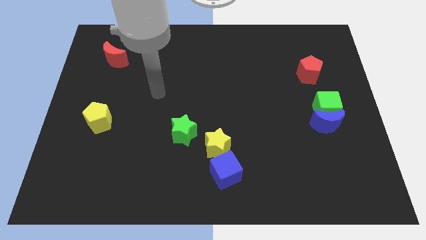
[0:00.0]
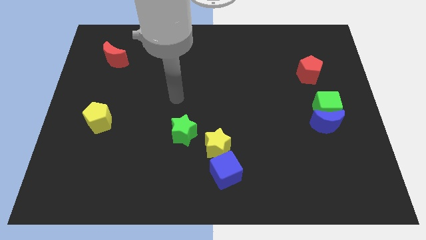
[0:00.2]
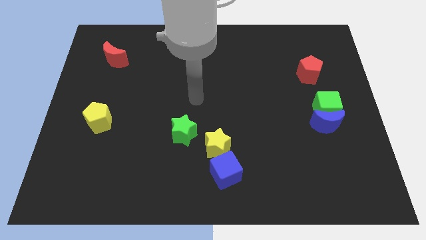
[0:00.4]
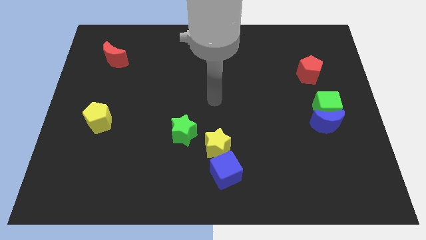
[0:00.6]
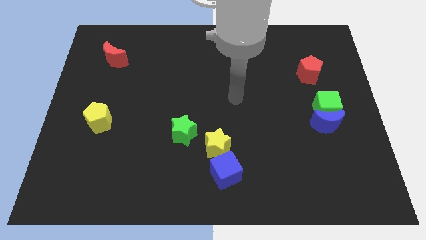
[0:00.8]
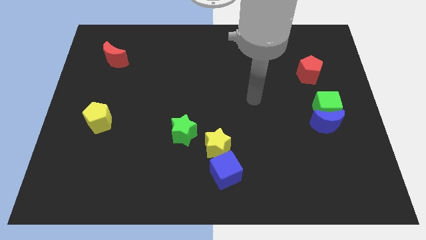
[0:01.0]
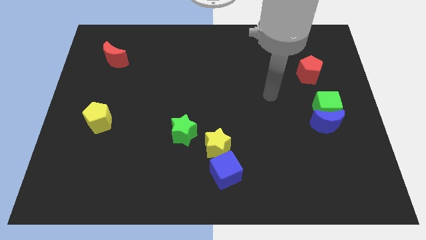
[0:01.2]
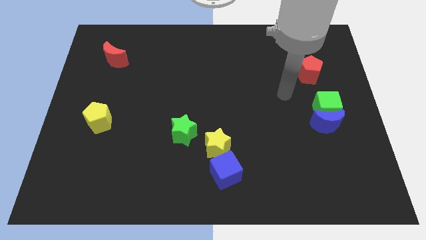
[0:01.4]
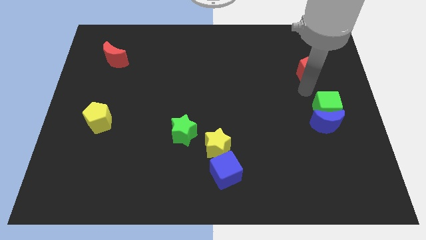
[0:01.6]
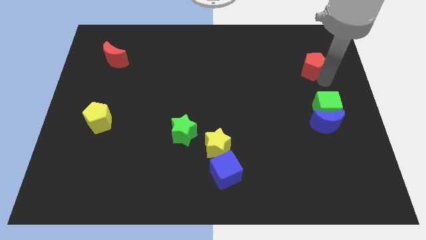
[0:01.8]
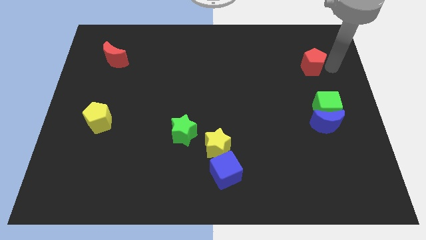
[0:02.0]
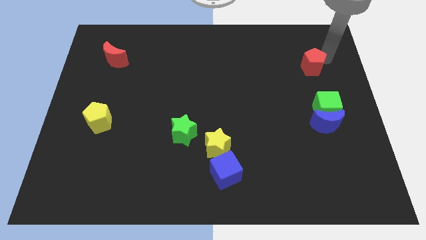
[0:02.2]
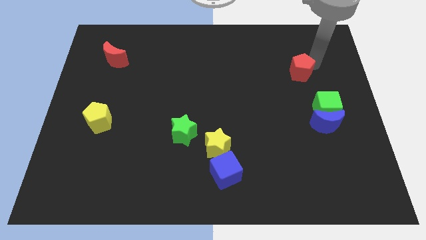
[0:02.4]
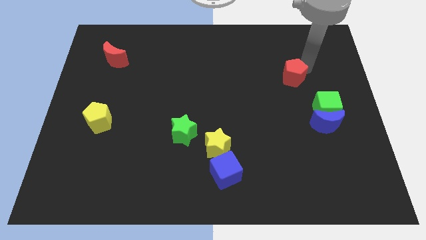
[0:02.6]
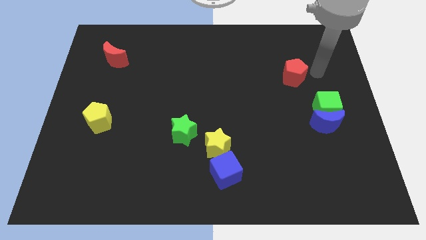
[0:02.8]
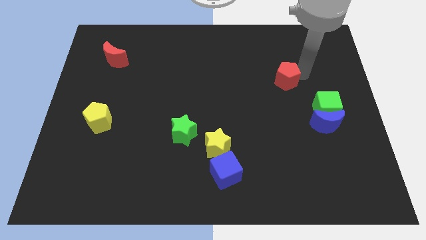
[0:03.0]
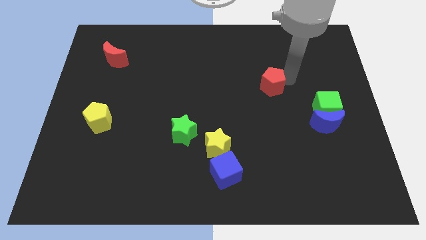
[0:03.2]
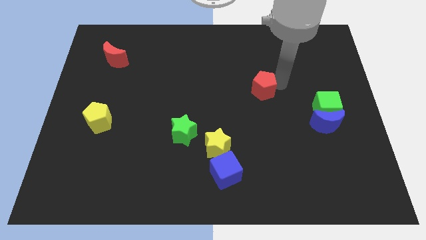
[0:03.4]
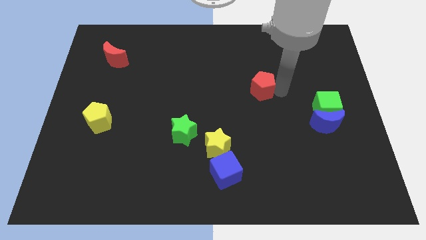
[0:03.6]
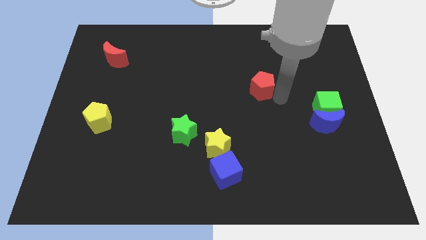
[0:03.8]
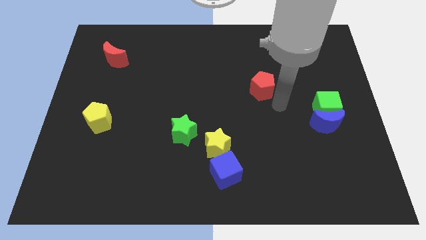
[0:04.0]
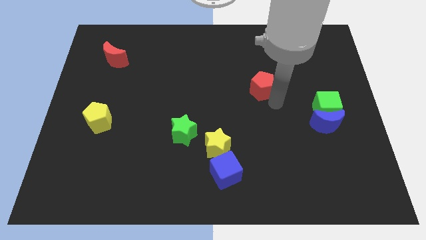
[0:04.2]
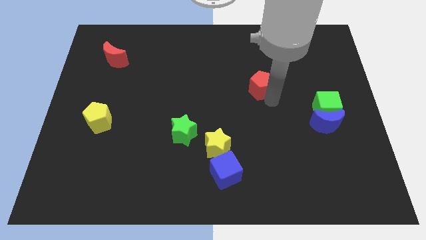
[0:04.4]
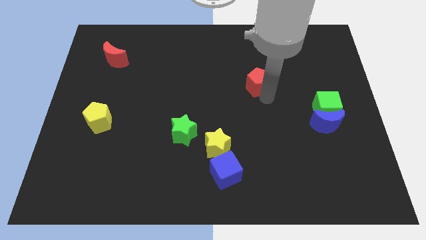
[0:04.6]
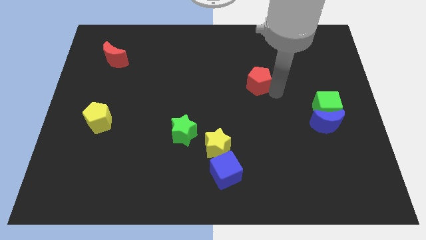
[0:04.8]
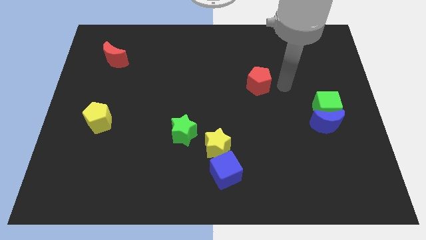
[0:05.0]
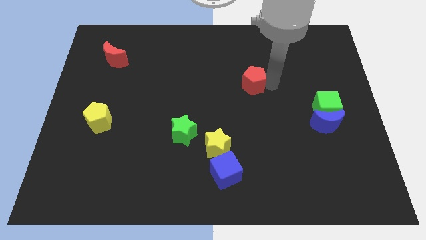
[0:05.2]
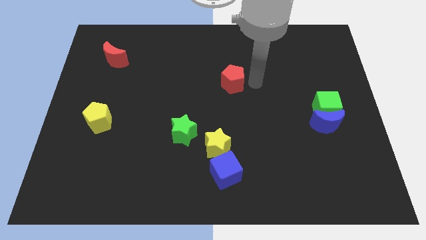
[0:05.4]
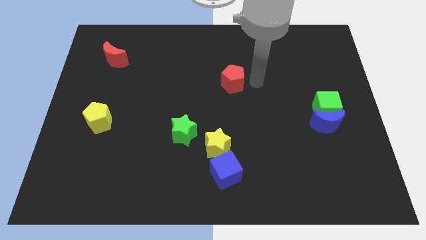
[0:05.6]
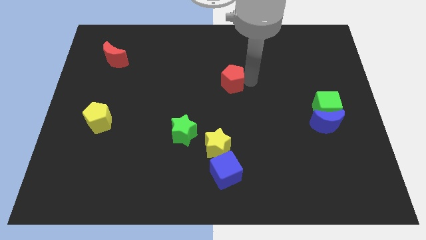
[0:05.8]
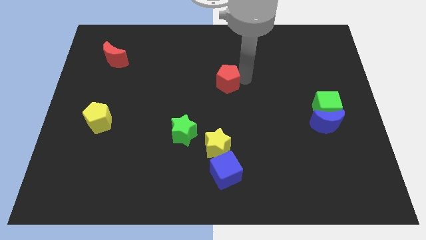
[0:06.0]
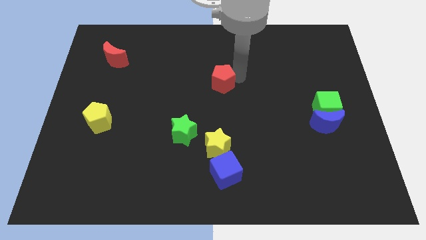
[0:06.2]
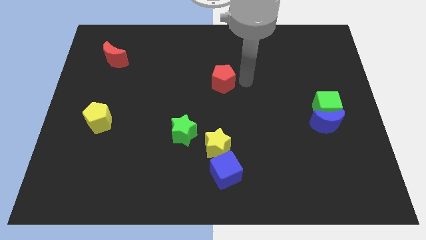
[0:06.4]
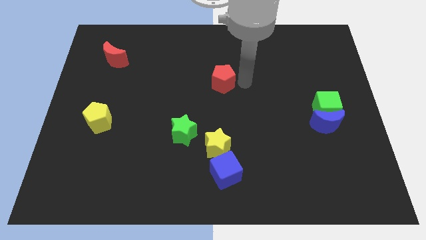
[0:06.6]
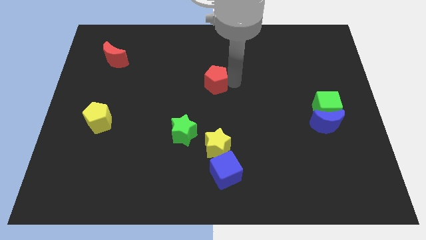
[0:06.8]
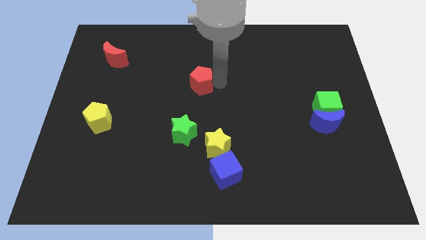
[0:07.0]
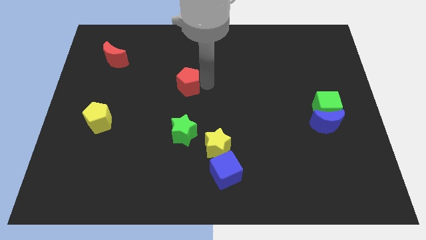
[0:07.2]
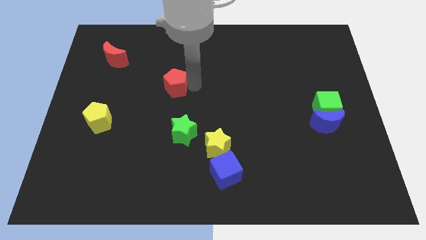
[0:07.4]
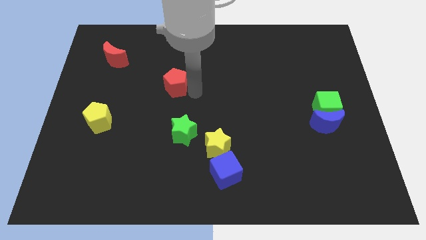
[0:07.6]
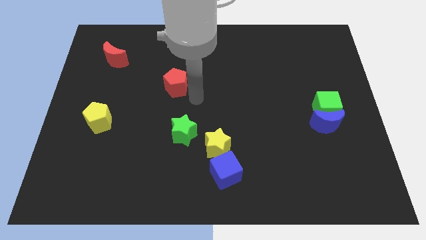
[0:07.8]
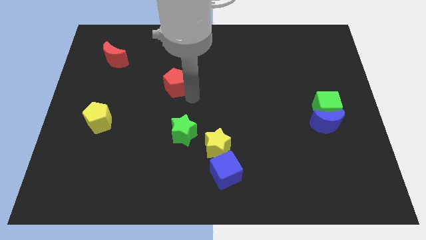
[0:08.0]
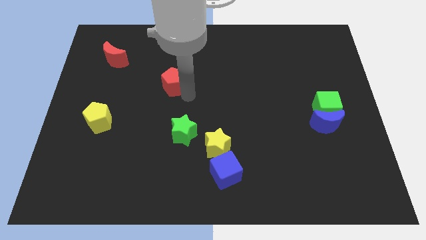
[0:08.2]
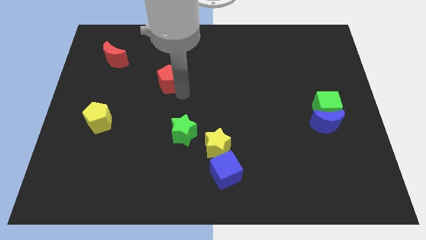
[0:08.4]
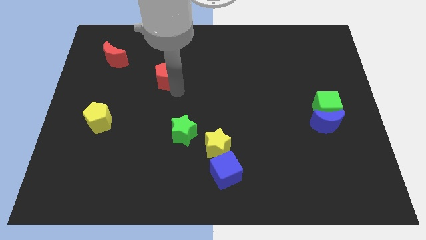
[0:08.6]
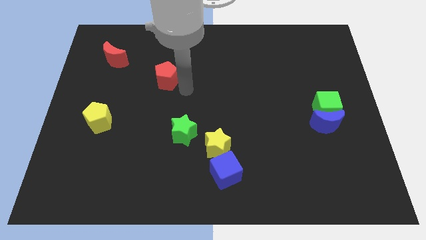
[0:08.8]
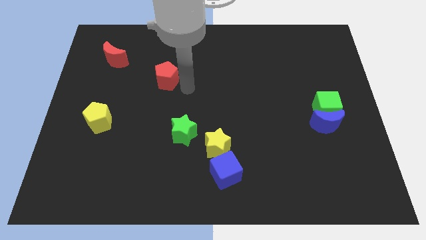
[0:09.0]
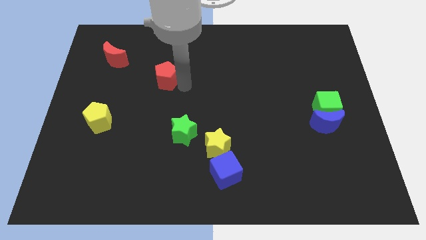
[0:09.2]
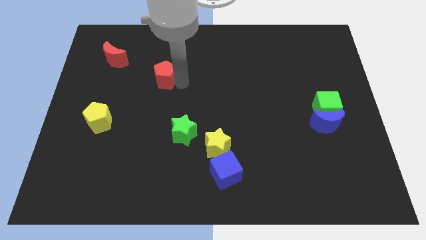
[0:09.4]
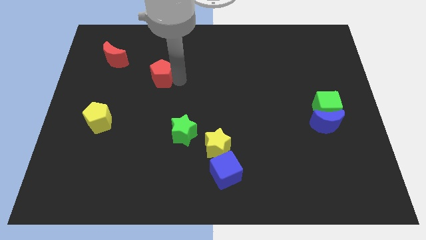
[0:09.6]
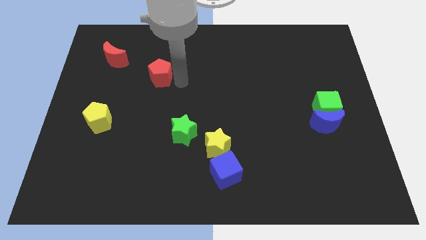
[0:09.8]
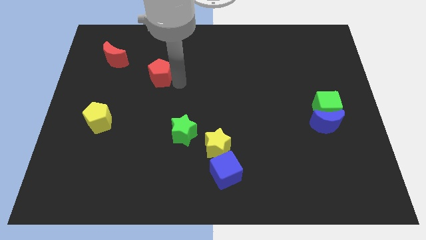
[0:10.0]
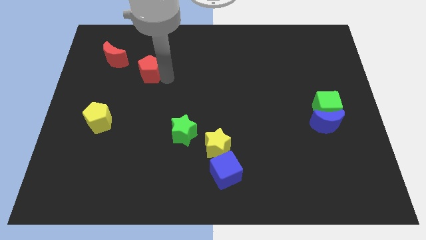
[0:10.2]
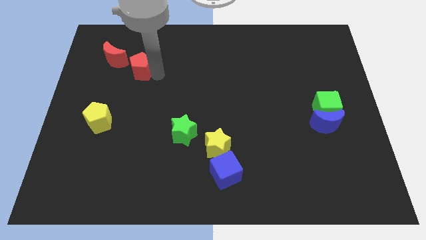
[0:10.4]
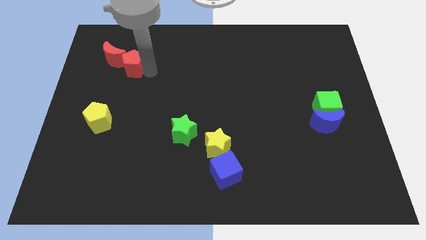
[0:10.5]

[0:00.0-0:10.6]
slide the red pentagon close to the red moon

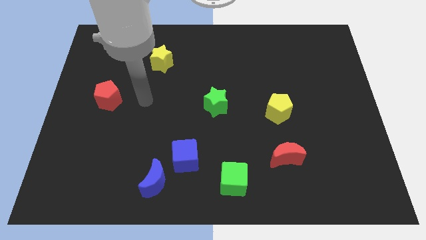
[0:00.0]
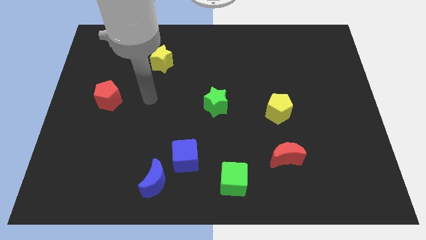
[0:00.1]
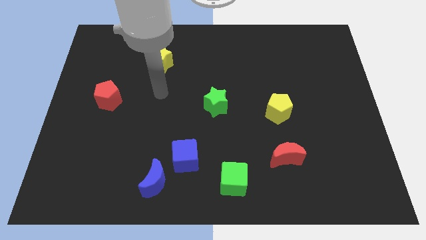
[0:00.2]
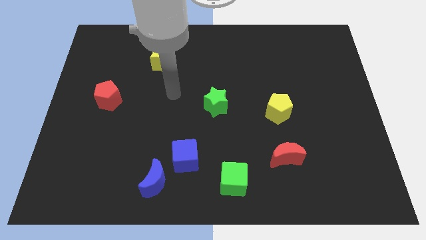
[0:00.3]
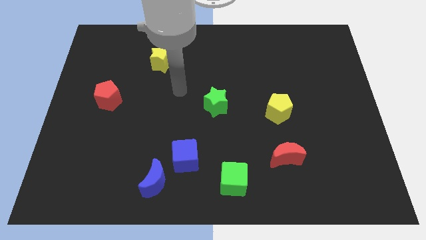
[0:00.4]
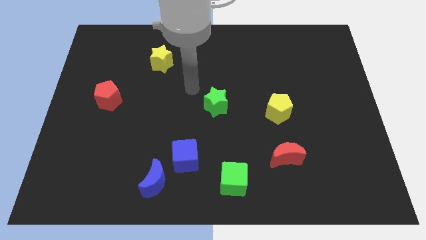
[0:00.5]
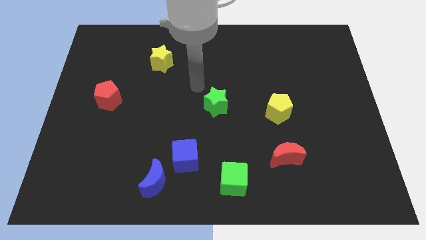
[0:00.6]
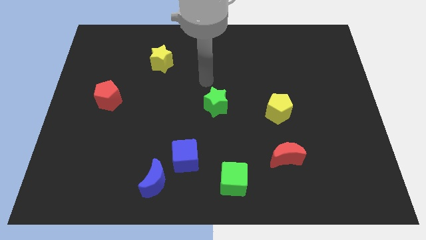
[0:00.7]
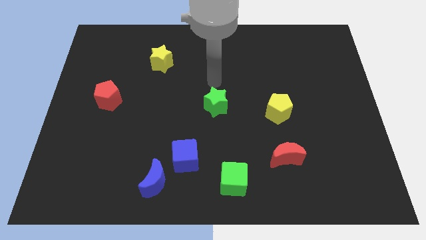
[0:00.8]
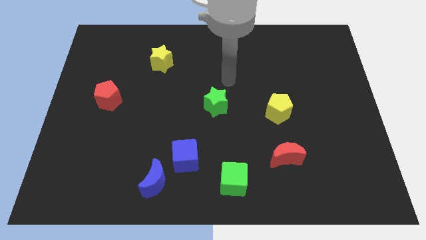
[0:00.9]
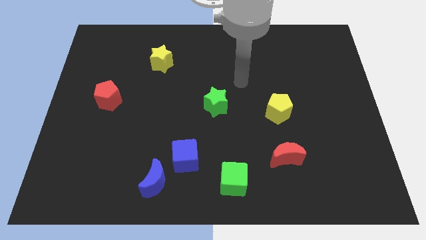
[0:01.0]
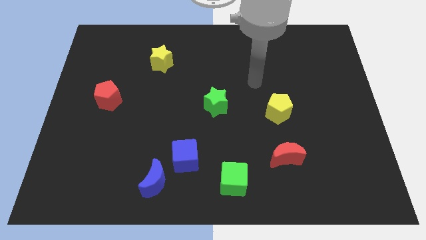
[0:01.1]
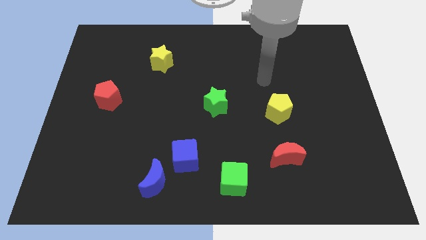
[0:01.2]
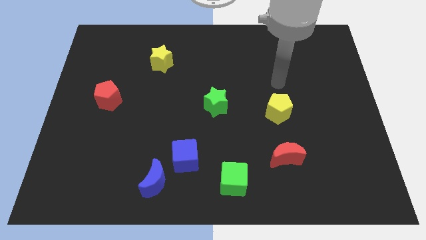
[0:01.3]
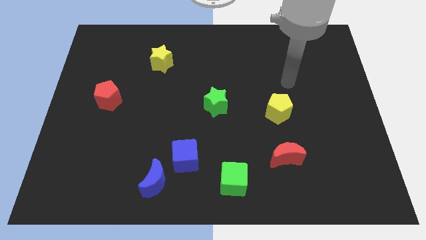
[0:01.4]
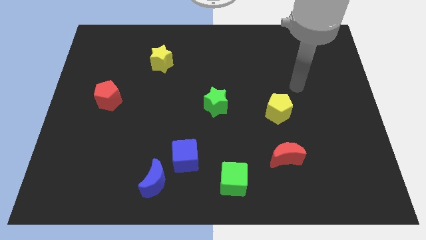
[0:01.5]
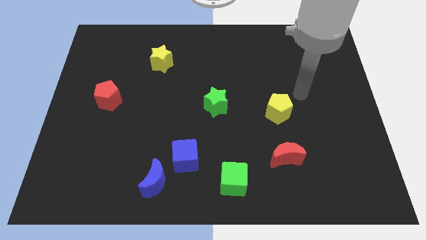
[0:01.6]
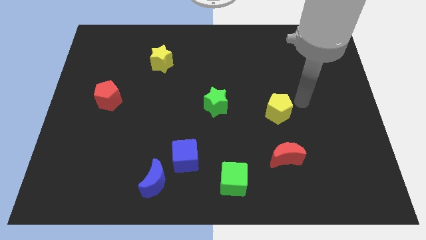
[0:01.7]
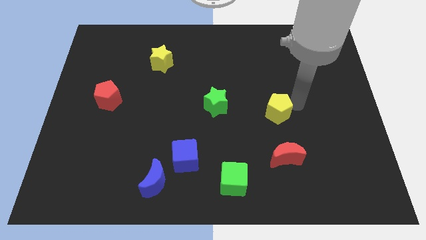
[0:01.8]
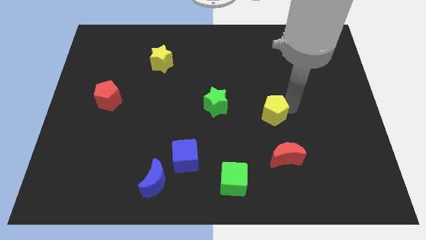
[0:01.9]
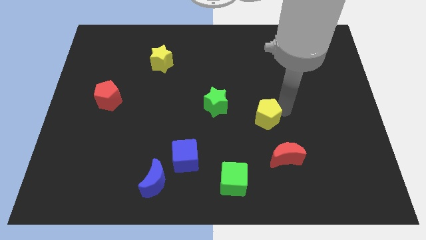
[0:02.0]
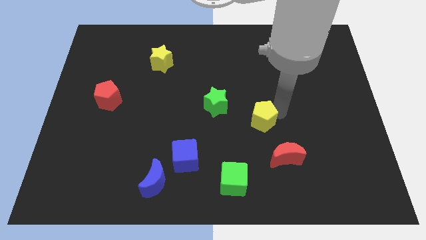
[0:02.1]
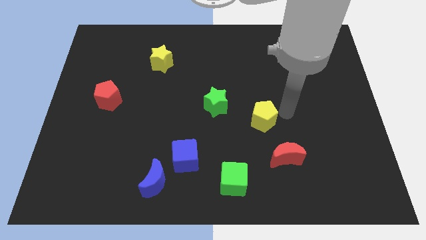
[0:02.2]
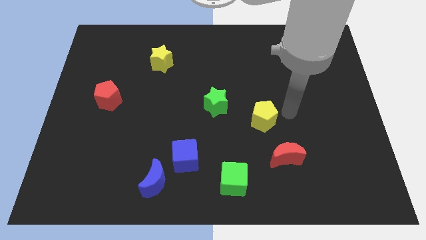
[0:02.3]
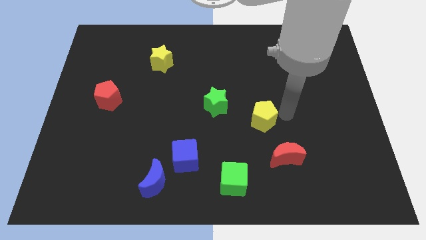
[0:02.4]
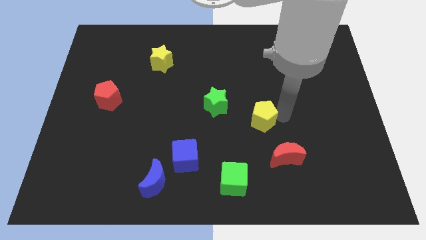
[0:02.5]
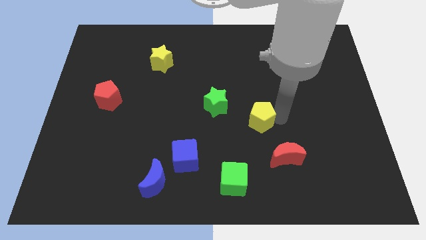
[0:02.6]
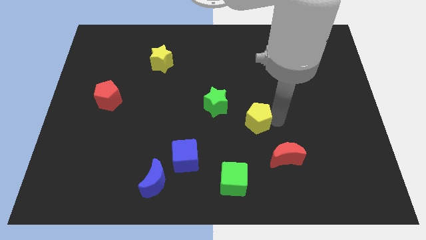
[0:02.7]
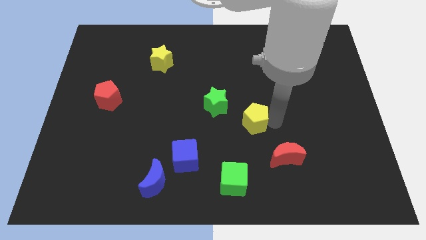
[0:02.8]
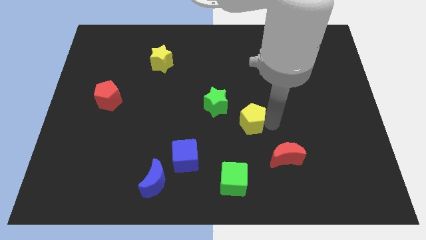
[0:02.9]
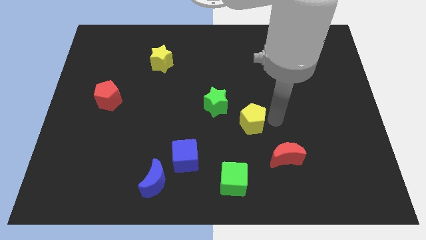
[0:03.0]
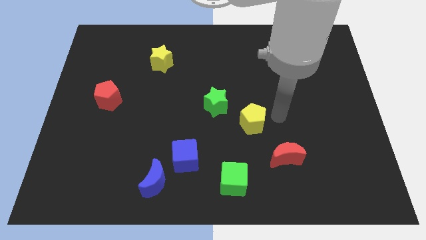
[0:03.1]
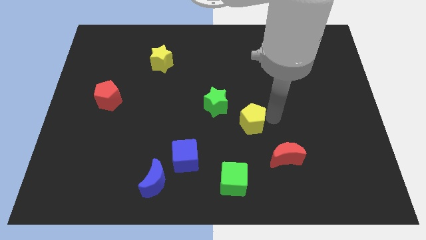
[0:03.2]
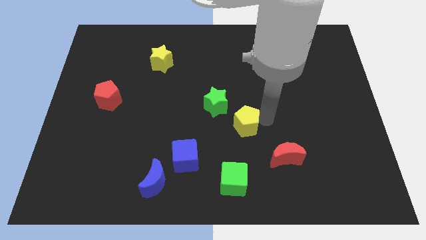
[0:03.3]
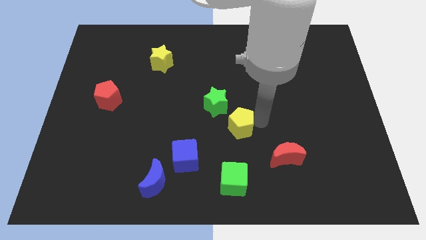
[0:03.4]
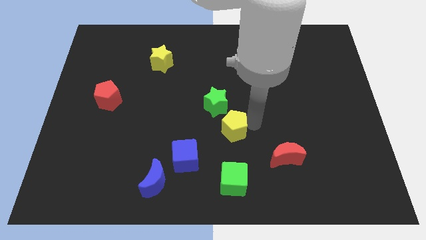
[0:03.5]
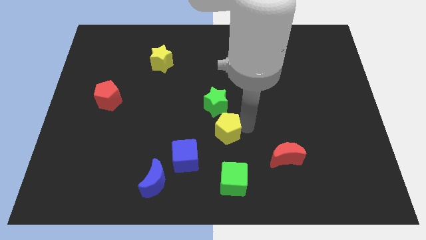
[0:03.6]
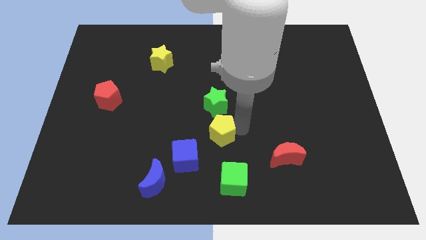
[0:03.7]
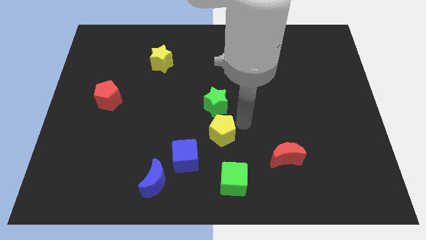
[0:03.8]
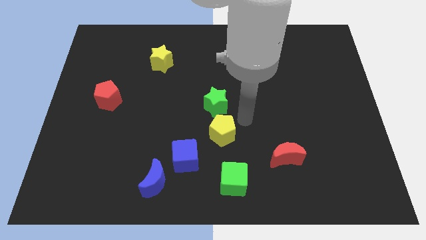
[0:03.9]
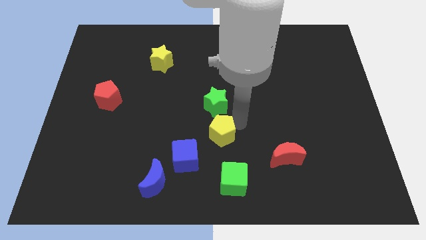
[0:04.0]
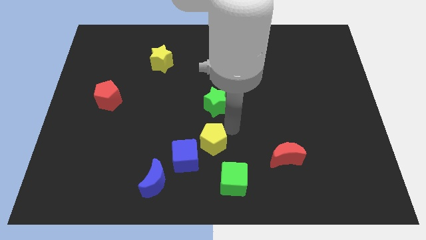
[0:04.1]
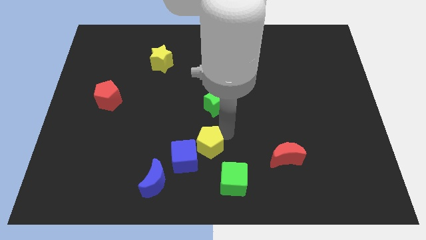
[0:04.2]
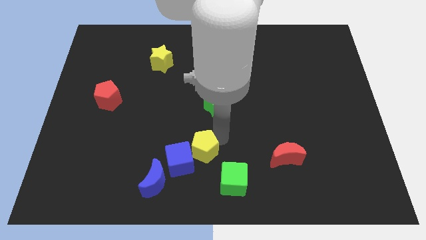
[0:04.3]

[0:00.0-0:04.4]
put the yellow pentagon close to the blue cube
